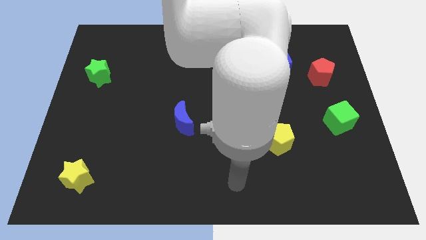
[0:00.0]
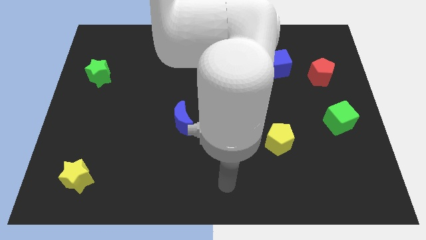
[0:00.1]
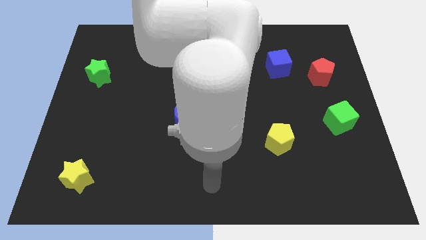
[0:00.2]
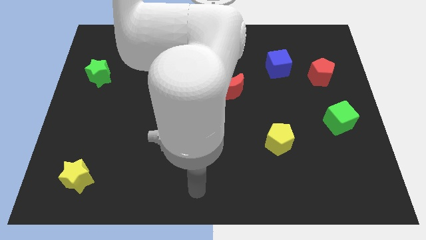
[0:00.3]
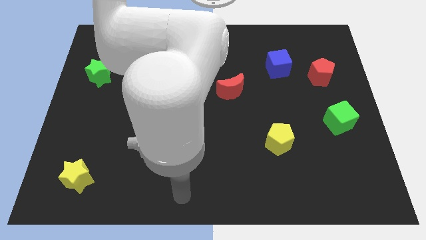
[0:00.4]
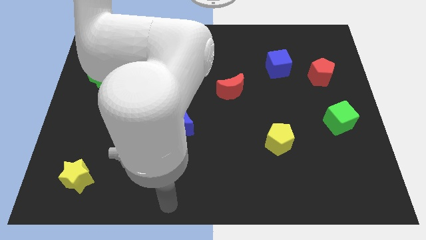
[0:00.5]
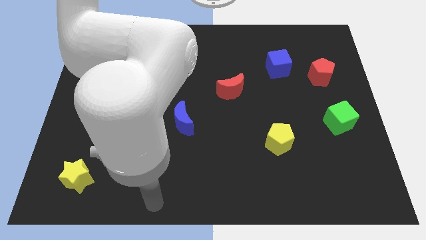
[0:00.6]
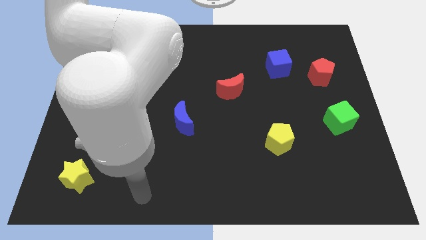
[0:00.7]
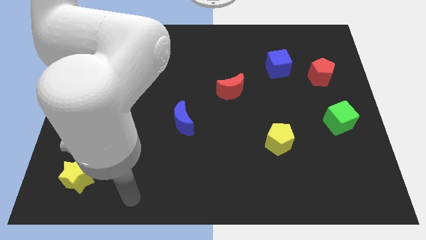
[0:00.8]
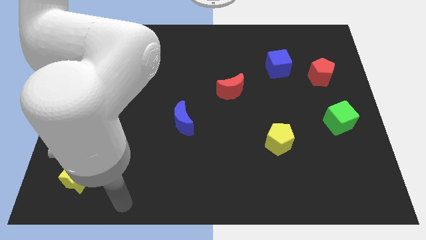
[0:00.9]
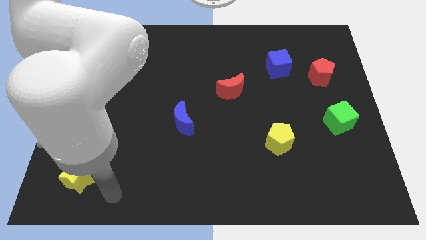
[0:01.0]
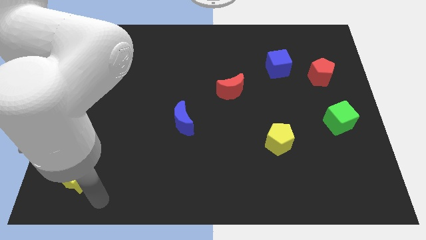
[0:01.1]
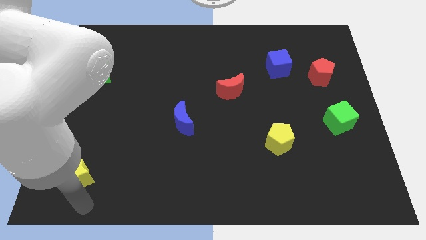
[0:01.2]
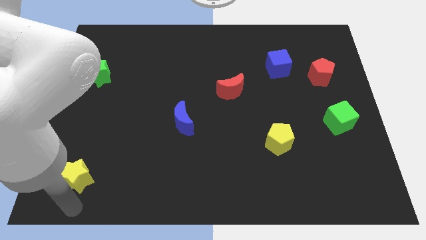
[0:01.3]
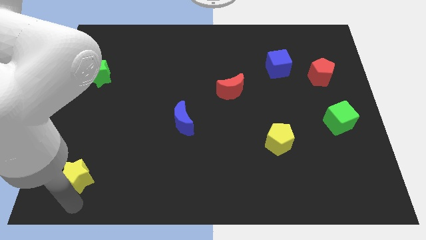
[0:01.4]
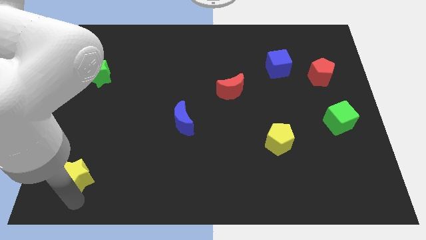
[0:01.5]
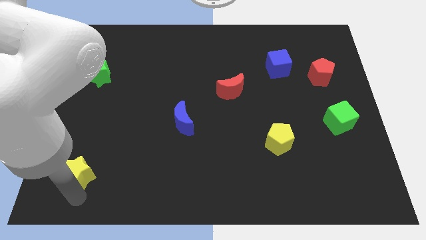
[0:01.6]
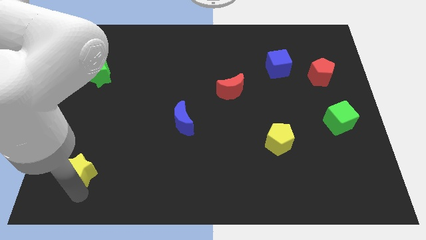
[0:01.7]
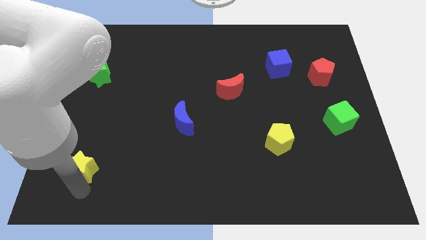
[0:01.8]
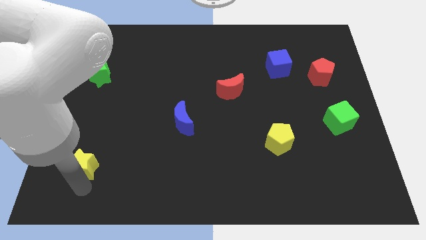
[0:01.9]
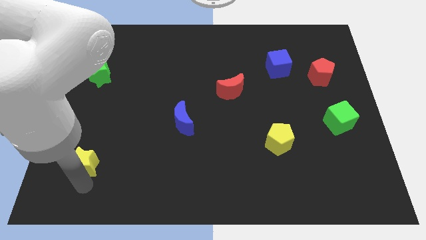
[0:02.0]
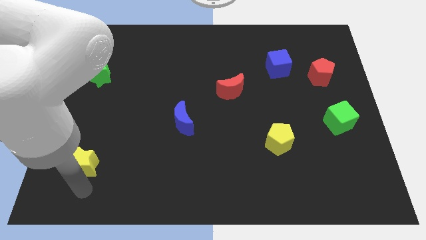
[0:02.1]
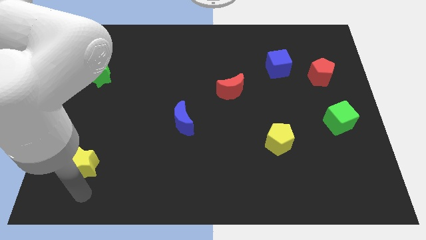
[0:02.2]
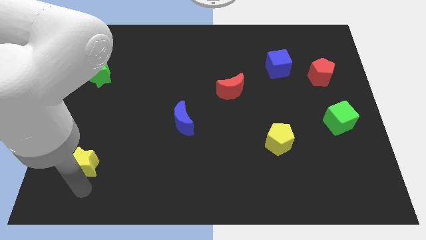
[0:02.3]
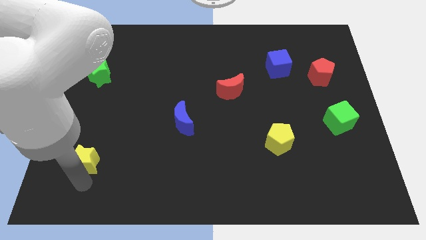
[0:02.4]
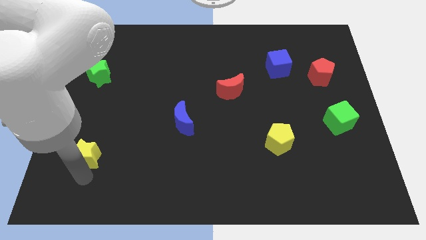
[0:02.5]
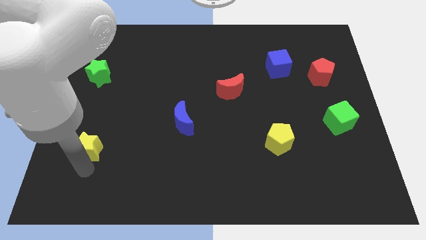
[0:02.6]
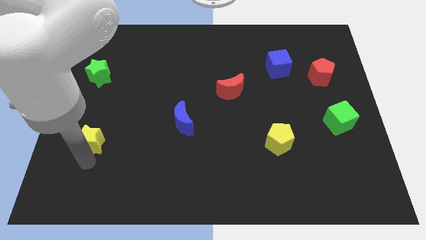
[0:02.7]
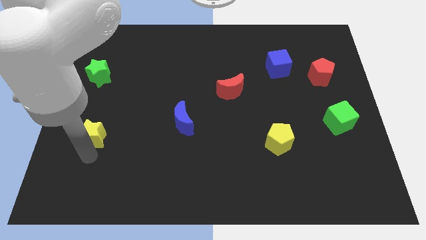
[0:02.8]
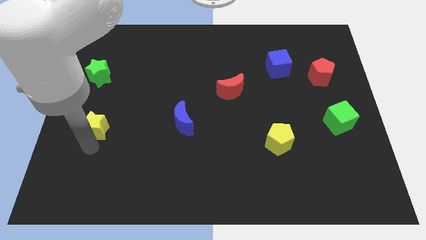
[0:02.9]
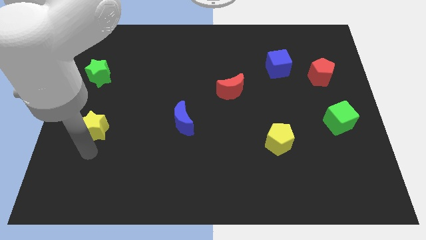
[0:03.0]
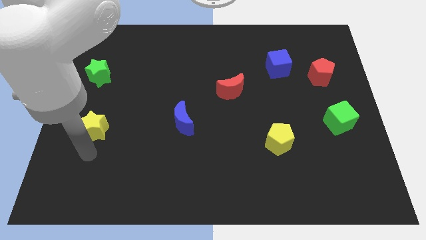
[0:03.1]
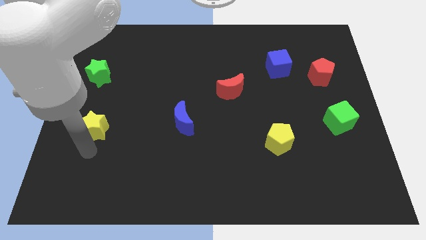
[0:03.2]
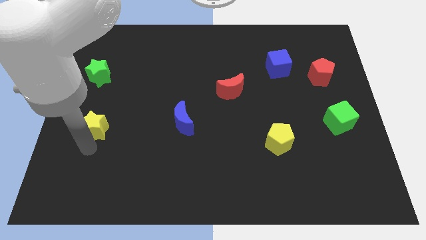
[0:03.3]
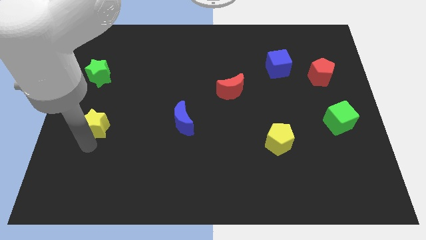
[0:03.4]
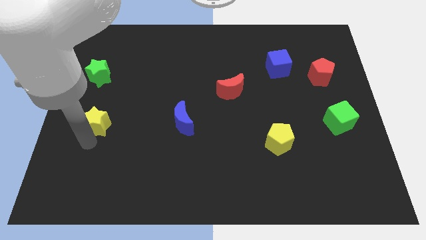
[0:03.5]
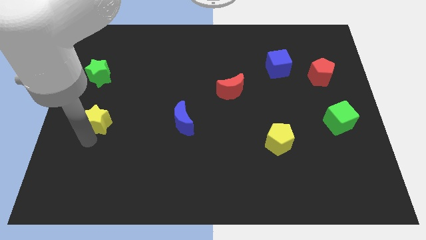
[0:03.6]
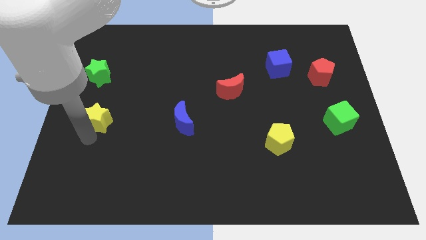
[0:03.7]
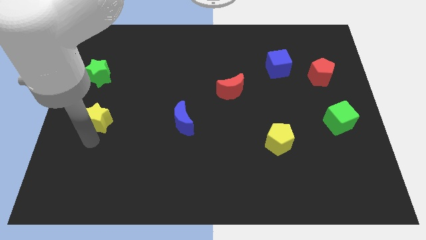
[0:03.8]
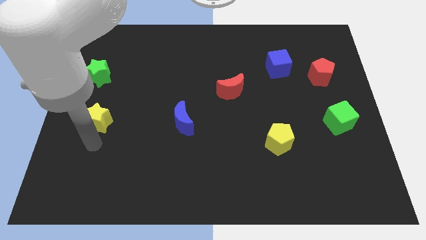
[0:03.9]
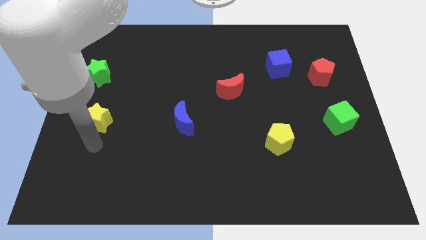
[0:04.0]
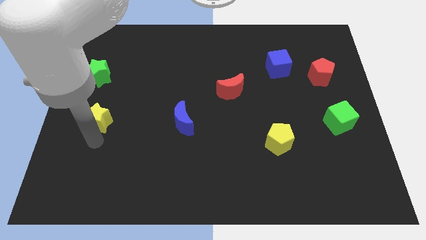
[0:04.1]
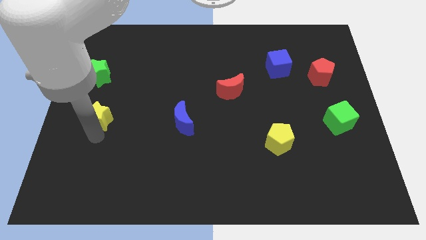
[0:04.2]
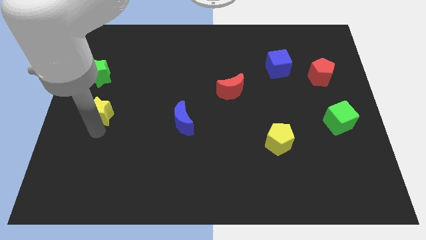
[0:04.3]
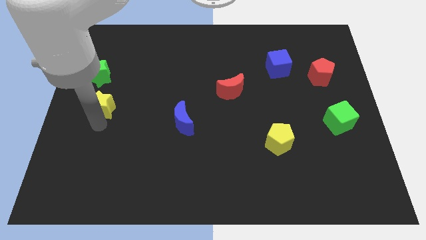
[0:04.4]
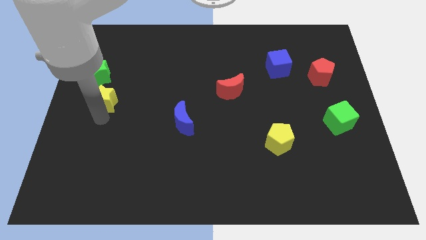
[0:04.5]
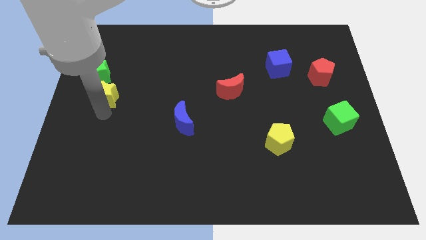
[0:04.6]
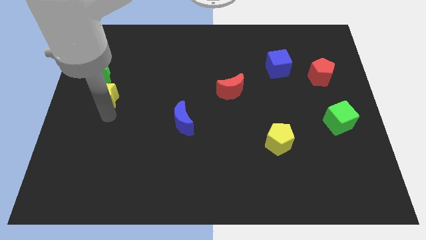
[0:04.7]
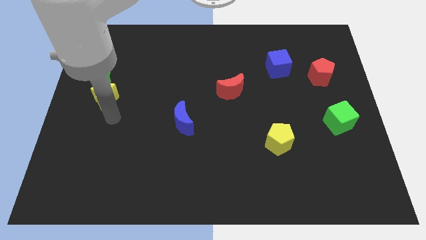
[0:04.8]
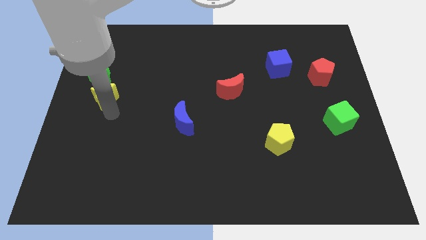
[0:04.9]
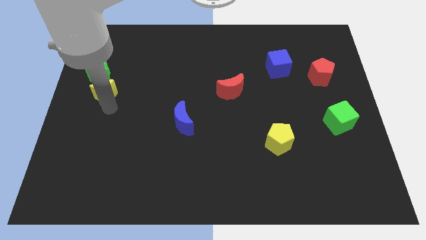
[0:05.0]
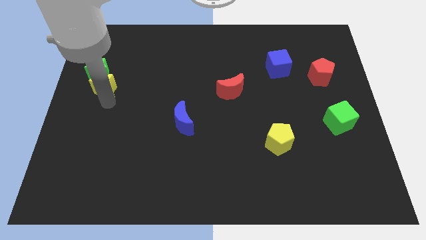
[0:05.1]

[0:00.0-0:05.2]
slide the yellow star to the green star

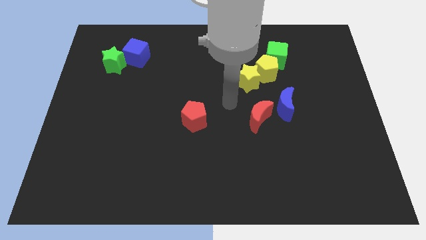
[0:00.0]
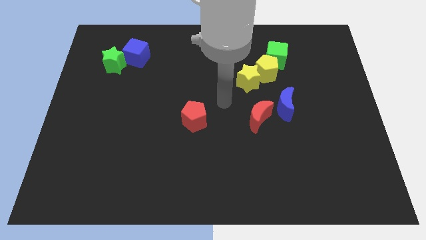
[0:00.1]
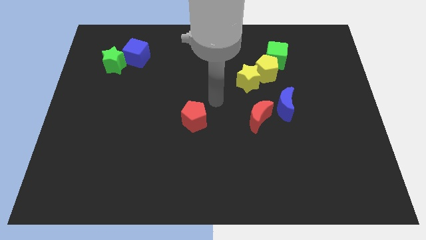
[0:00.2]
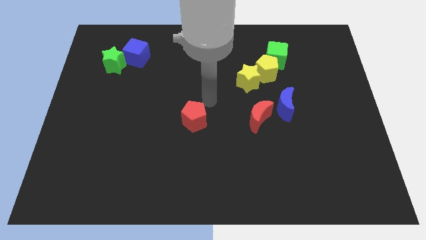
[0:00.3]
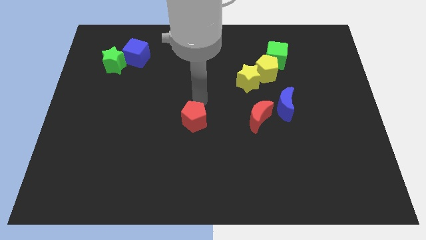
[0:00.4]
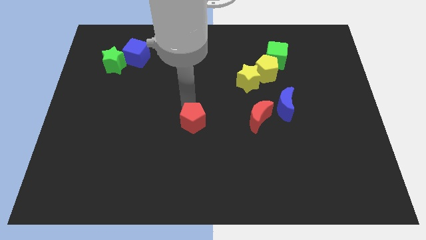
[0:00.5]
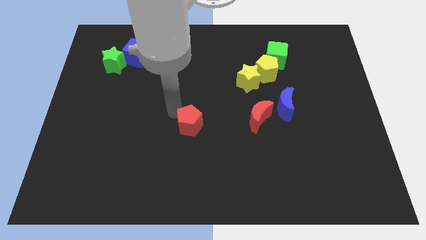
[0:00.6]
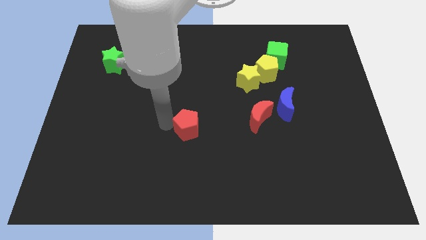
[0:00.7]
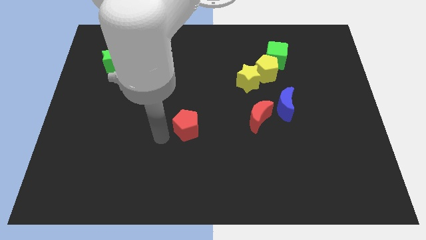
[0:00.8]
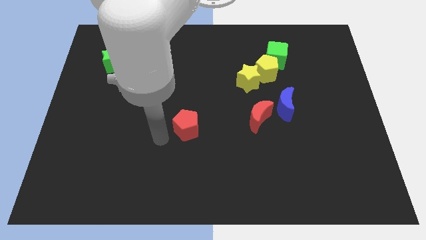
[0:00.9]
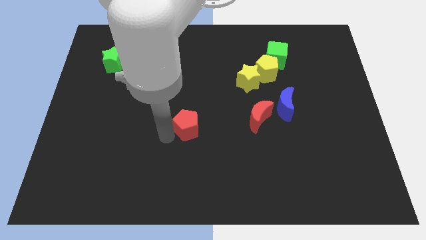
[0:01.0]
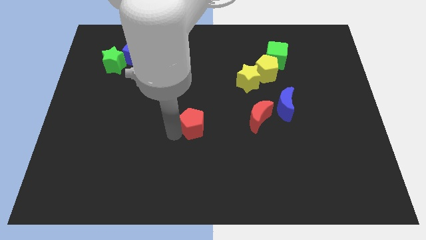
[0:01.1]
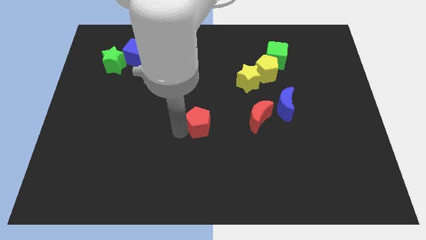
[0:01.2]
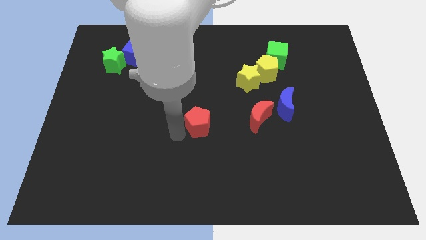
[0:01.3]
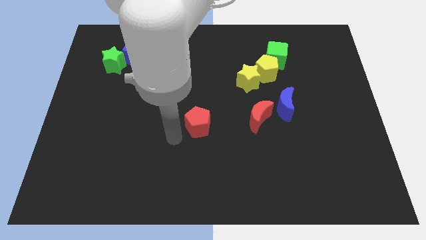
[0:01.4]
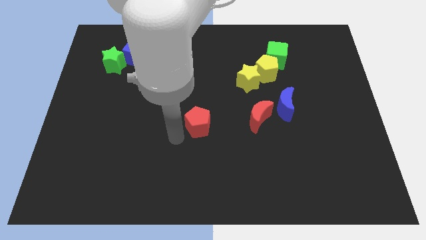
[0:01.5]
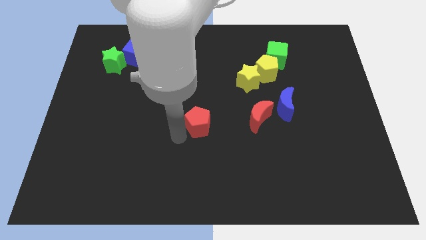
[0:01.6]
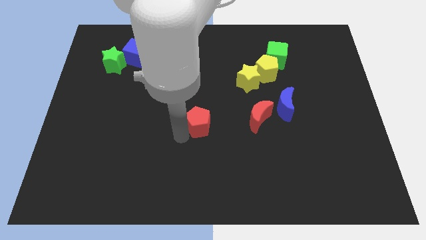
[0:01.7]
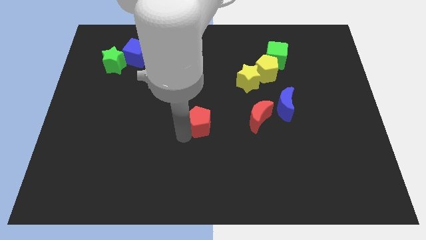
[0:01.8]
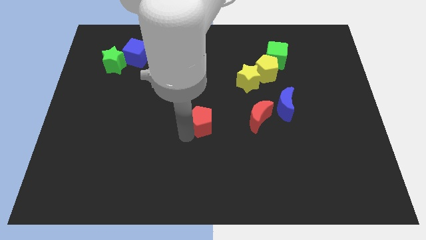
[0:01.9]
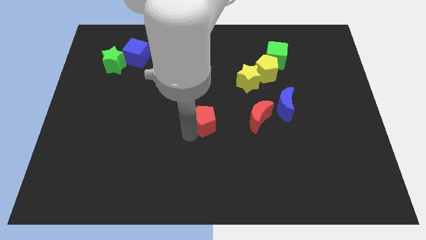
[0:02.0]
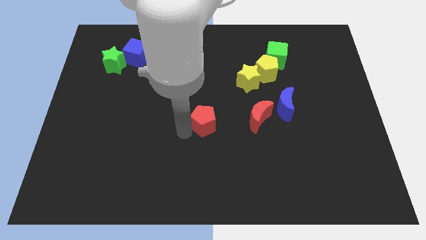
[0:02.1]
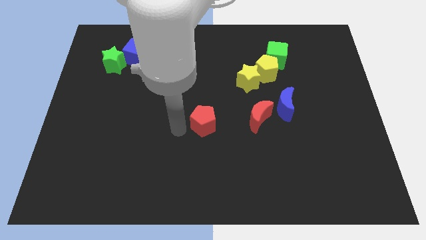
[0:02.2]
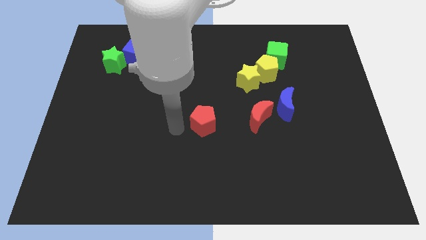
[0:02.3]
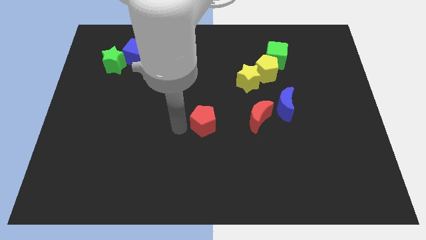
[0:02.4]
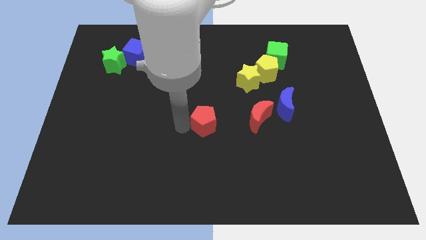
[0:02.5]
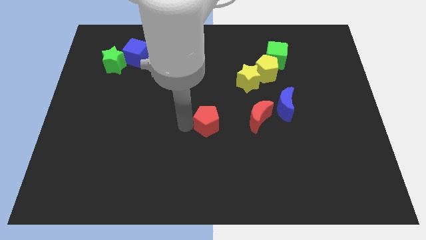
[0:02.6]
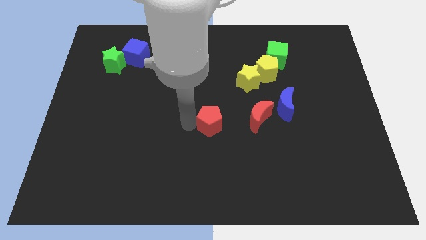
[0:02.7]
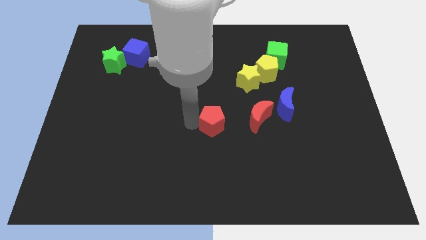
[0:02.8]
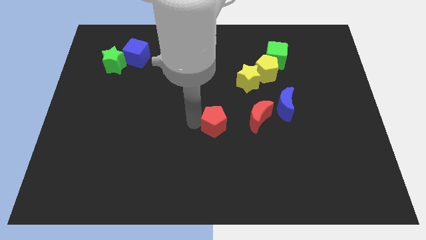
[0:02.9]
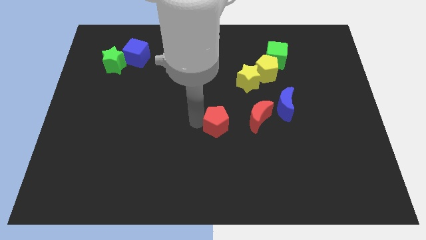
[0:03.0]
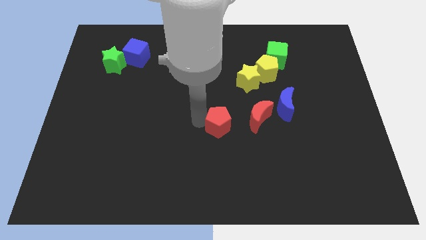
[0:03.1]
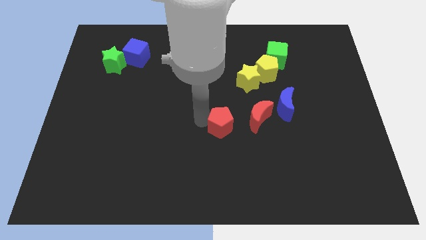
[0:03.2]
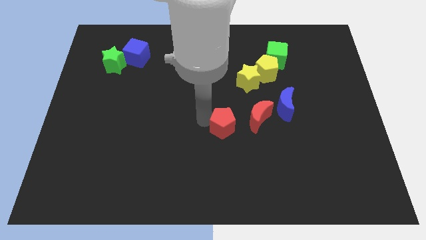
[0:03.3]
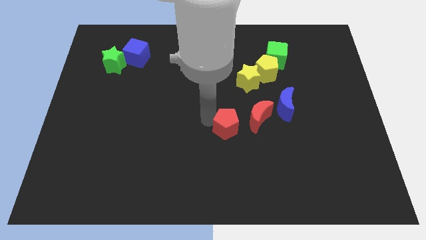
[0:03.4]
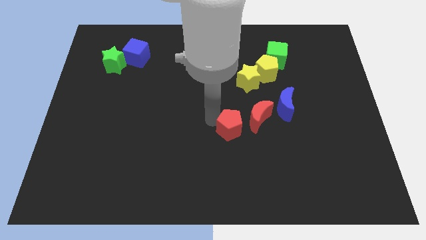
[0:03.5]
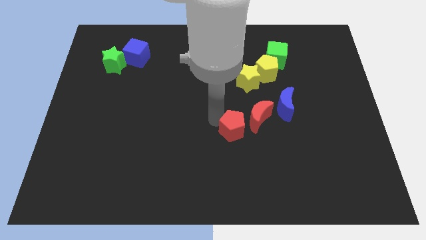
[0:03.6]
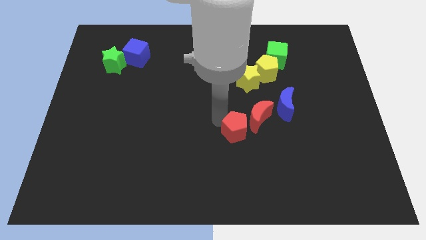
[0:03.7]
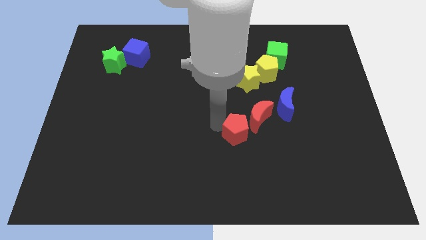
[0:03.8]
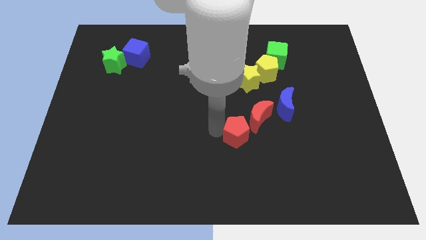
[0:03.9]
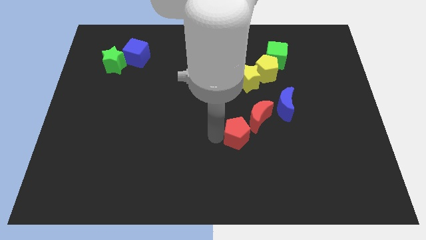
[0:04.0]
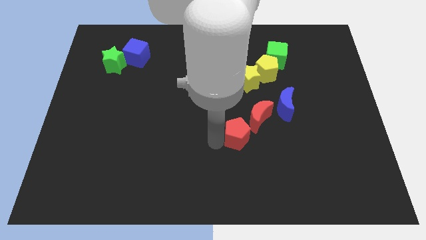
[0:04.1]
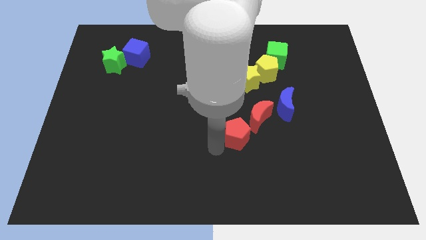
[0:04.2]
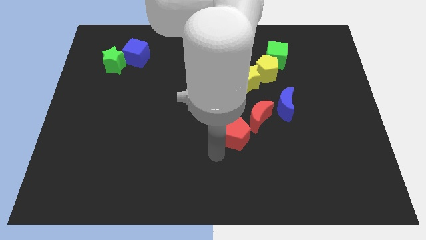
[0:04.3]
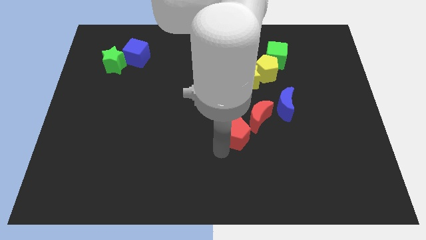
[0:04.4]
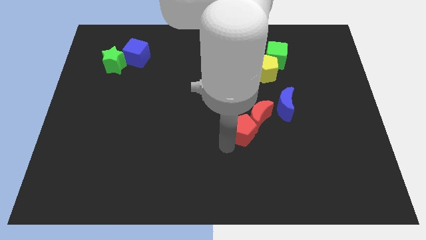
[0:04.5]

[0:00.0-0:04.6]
move the red pentagon close to the red moon
